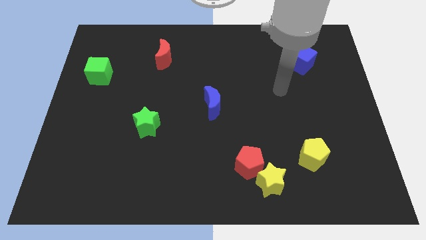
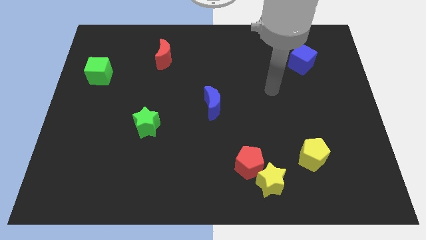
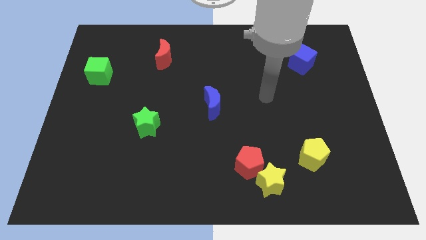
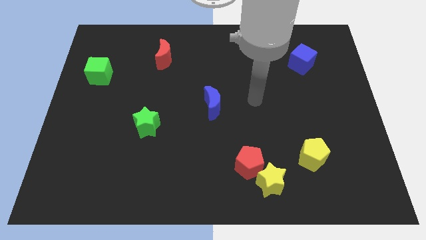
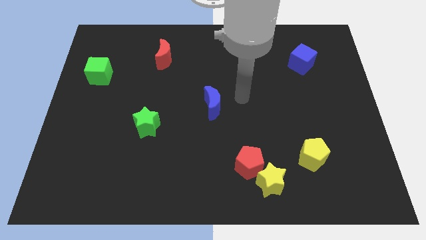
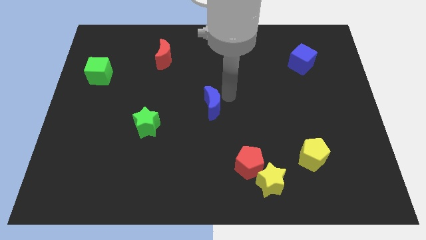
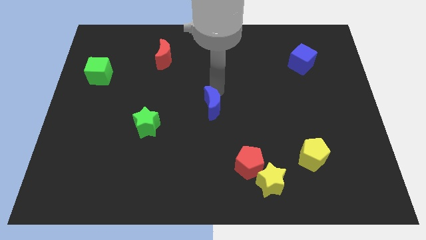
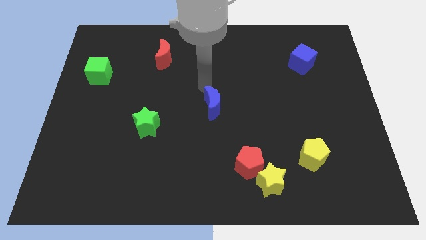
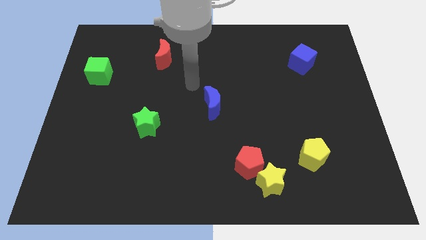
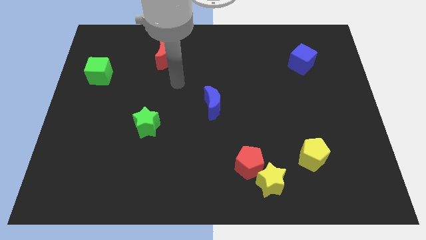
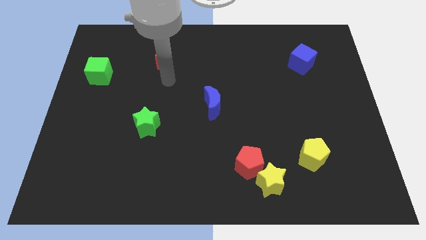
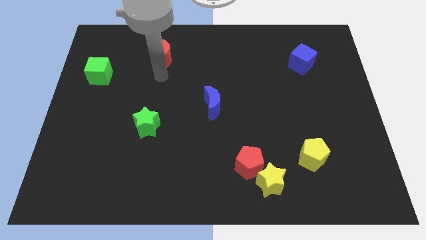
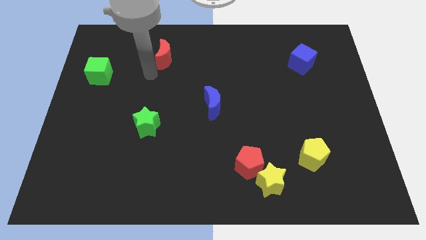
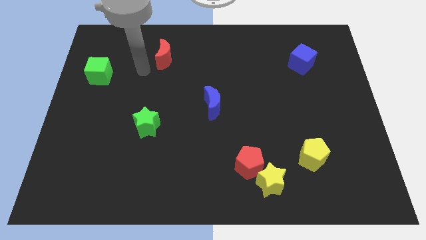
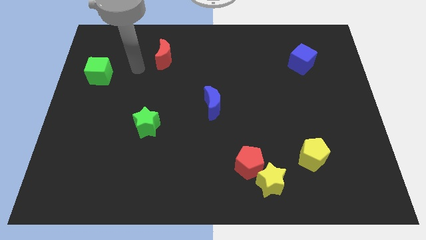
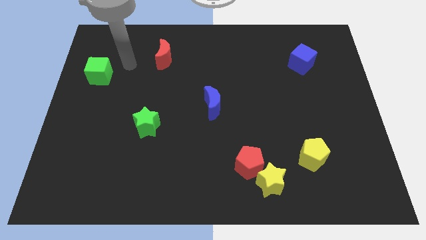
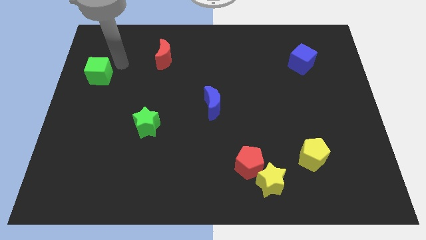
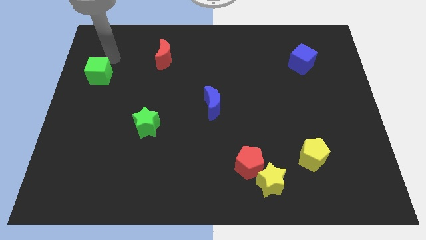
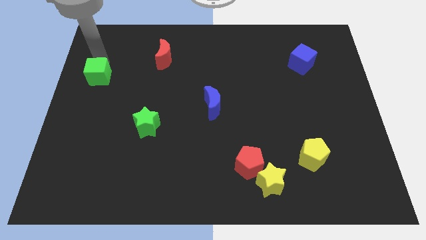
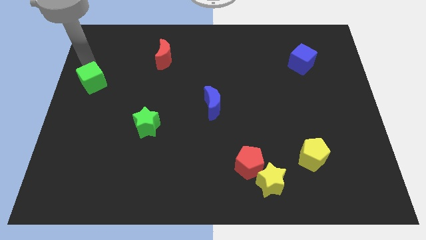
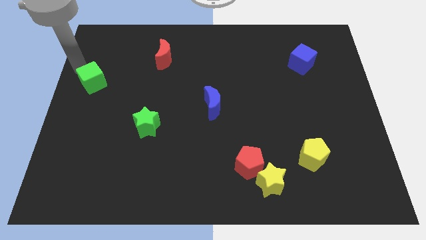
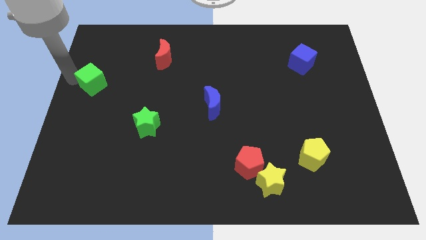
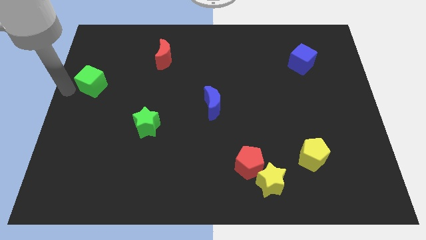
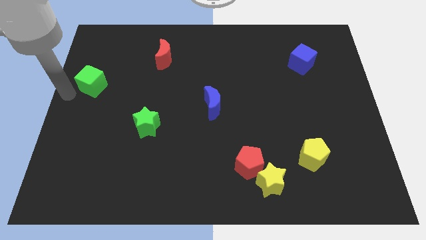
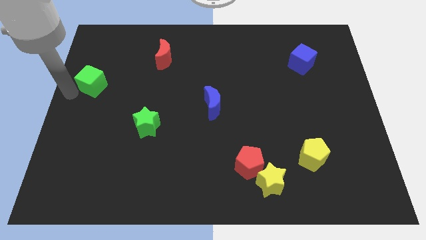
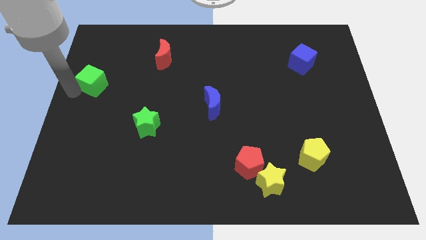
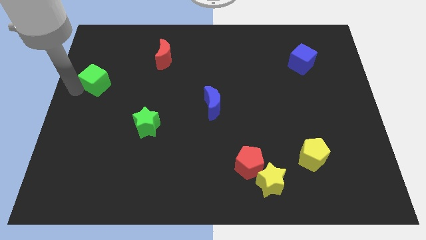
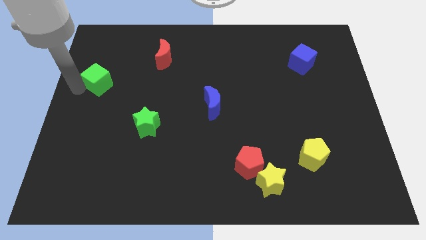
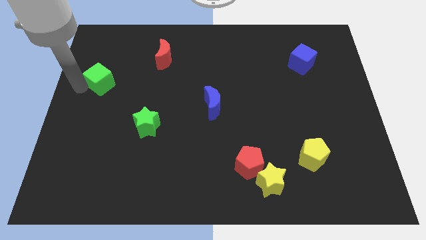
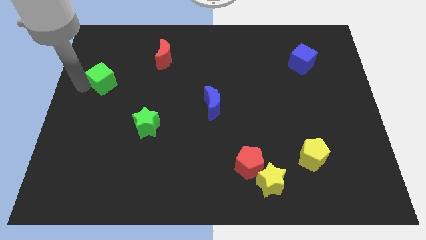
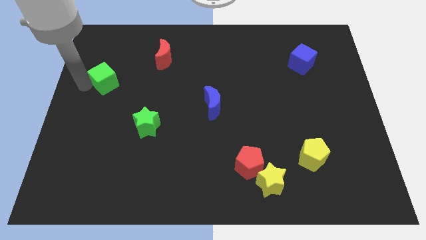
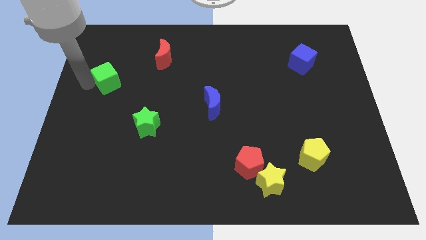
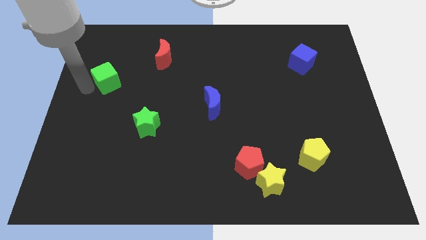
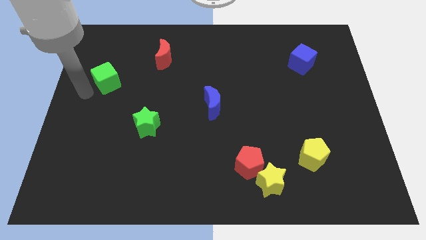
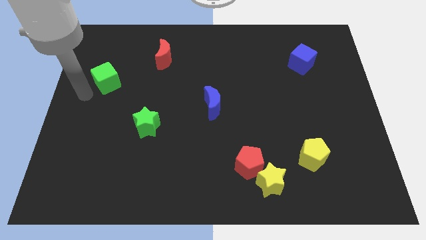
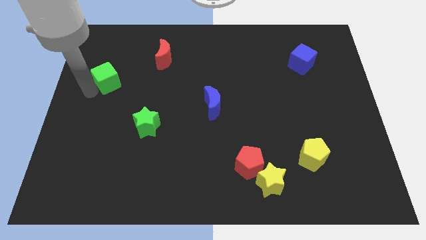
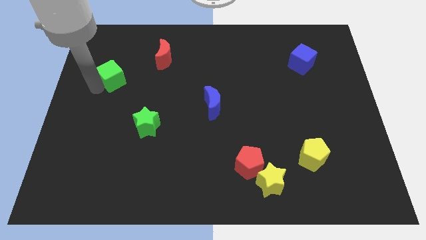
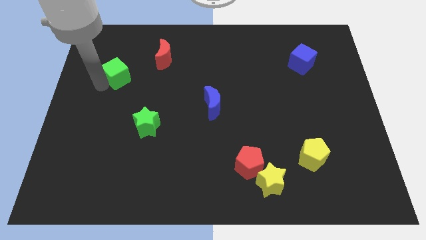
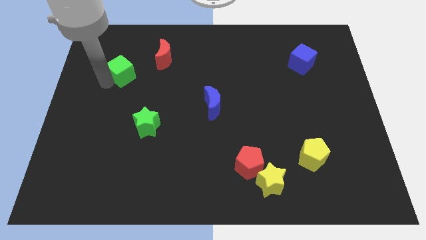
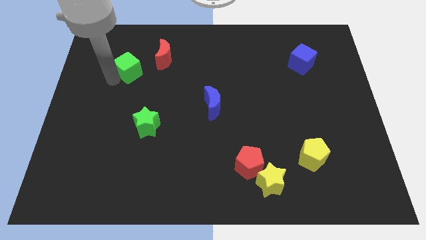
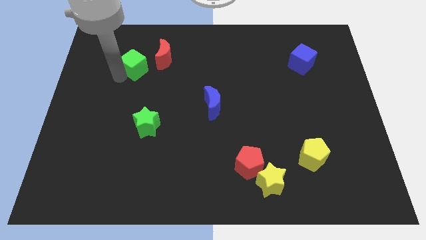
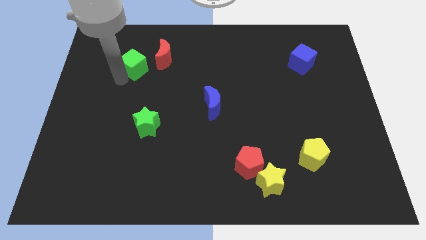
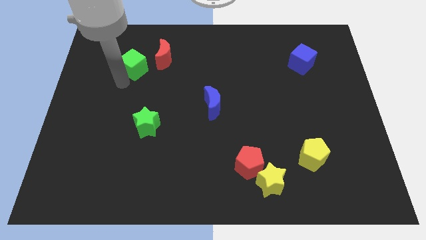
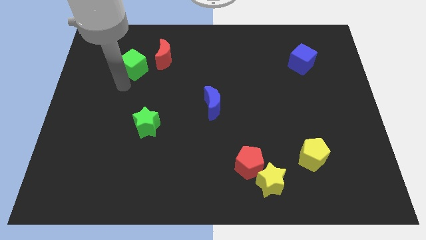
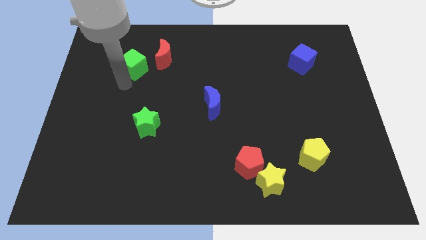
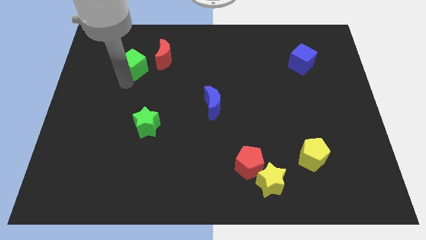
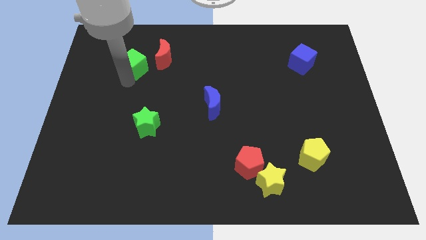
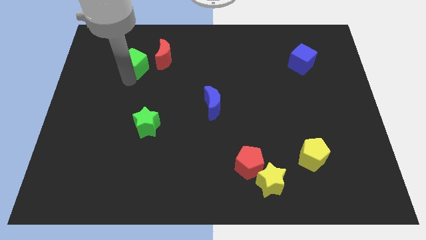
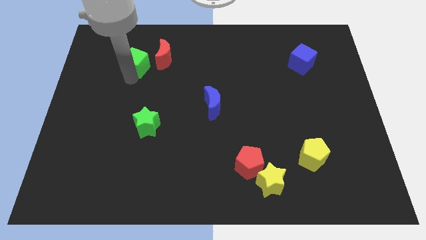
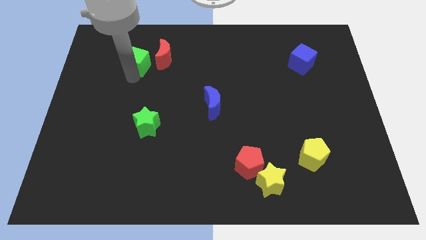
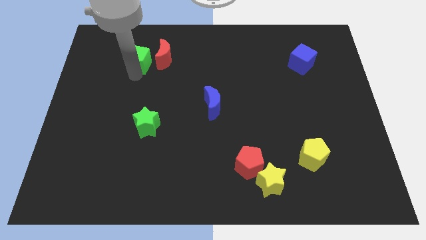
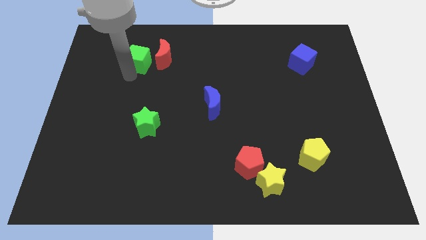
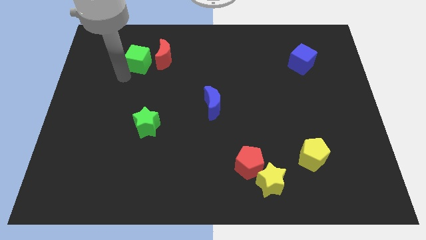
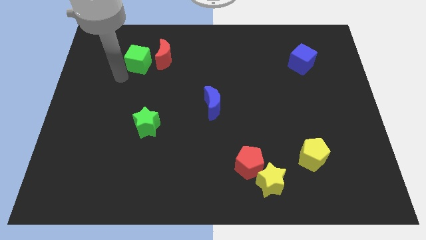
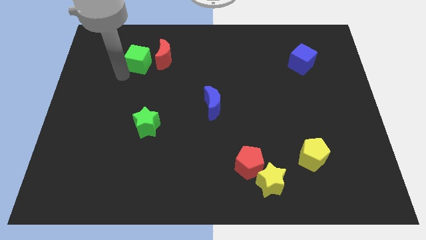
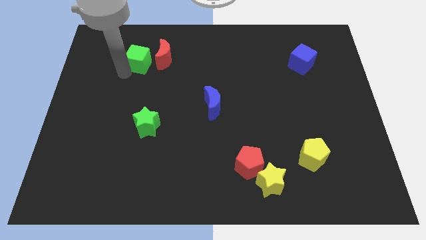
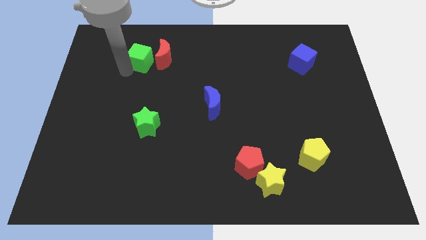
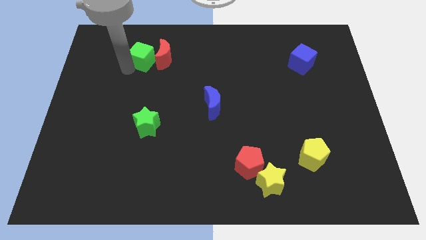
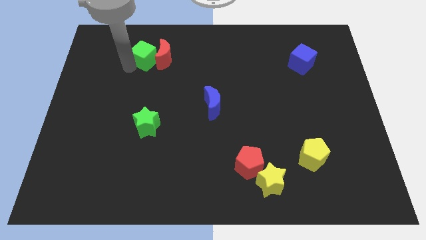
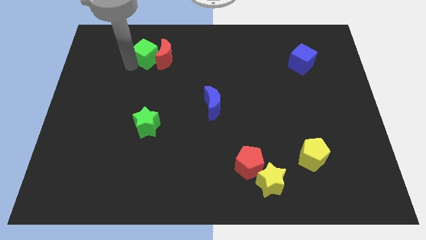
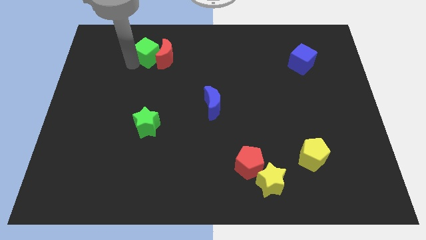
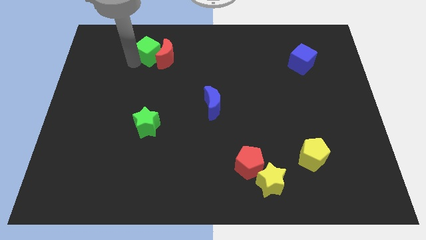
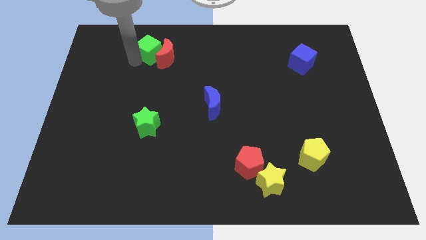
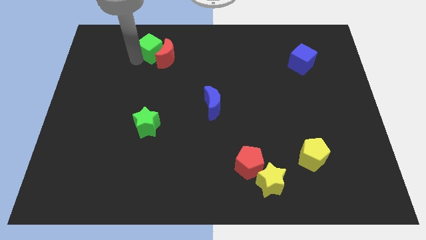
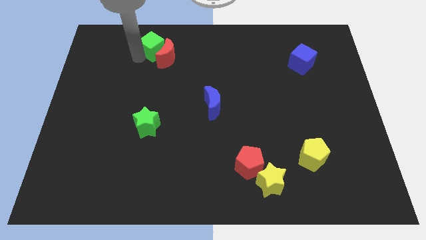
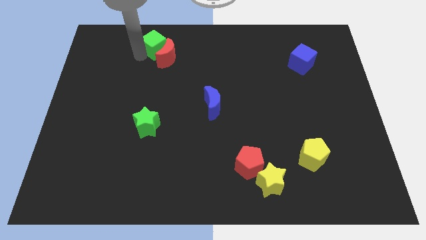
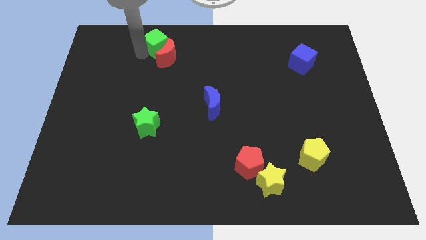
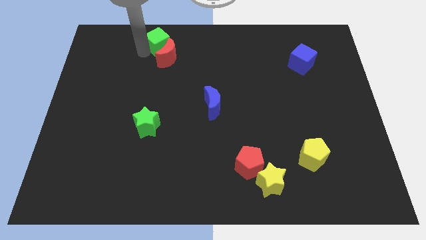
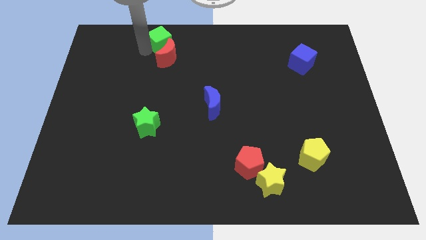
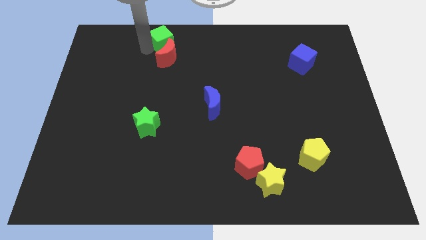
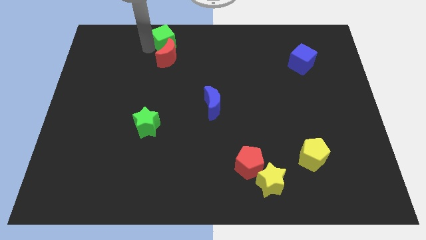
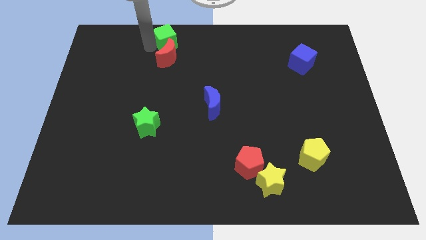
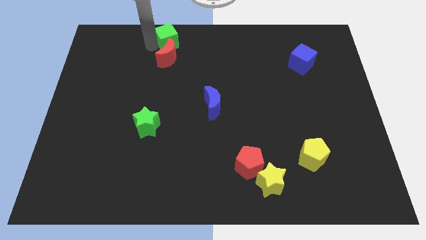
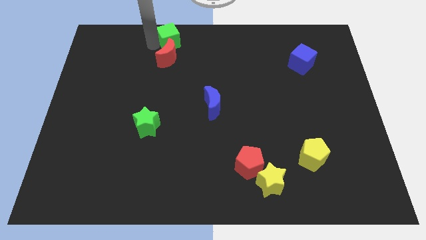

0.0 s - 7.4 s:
put the green cube to the top
